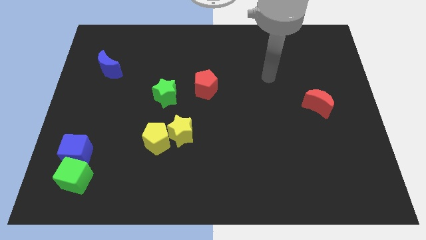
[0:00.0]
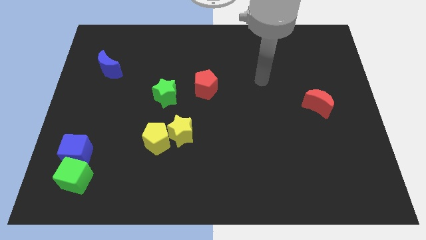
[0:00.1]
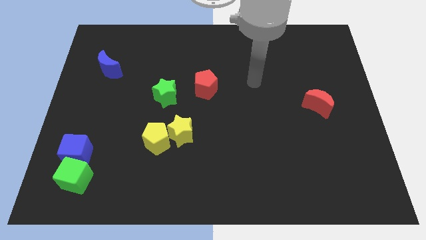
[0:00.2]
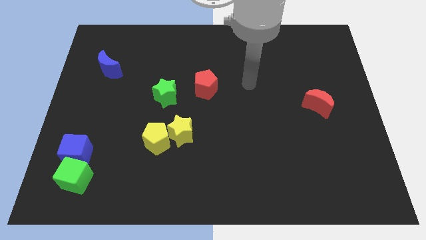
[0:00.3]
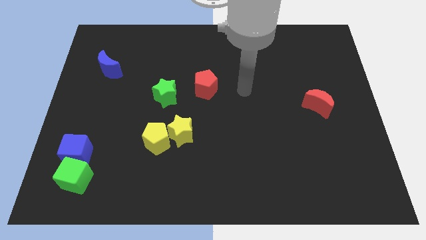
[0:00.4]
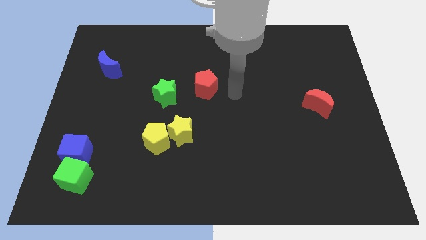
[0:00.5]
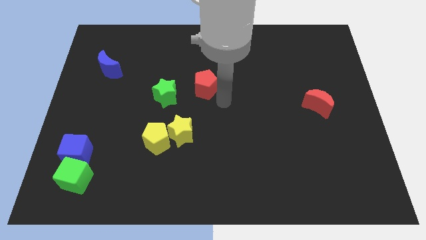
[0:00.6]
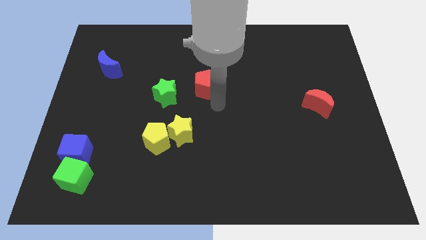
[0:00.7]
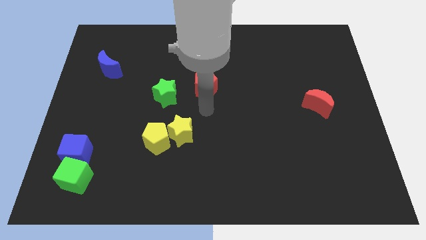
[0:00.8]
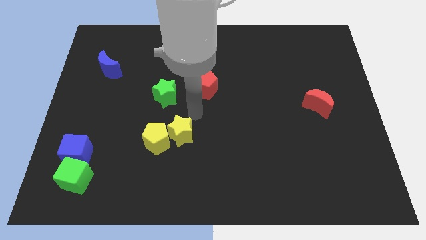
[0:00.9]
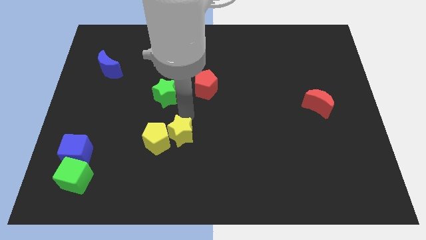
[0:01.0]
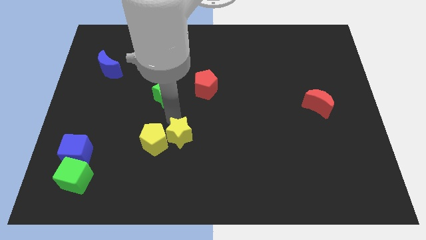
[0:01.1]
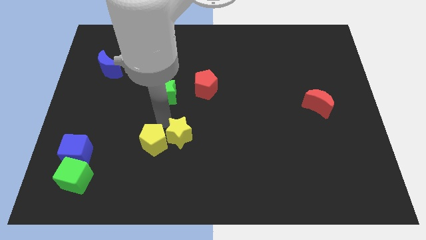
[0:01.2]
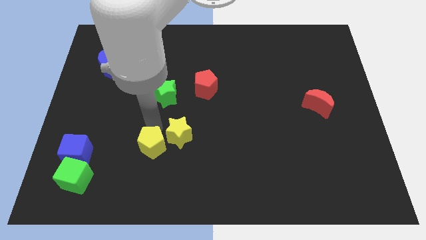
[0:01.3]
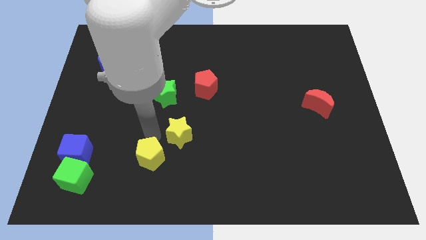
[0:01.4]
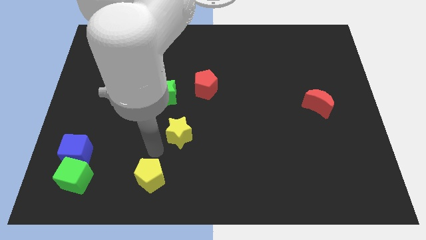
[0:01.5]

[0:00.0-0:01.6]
move the yellow star away from the yellow pentagon

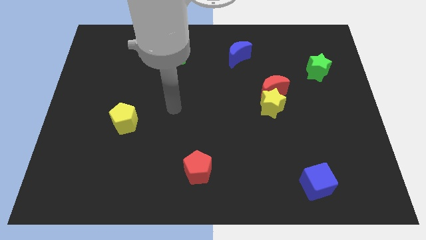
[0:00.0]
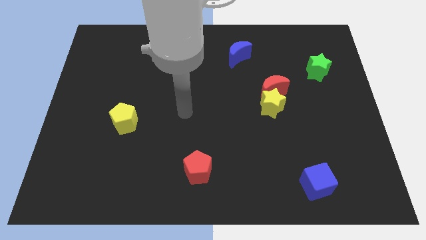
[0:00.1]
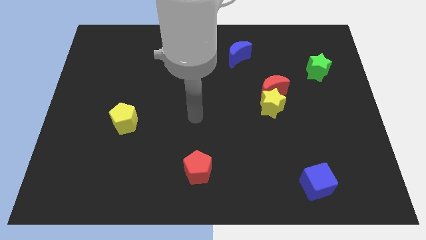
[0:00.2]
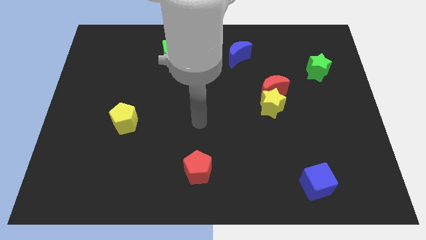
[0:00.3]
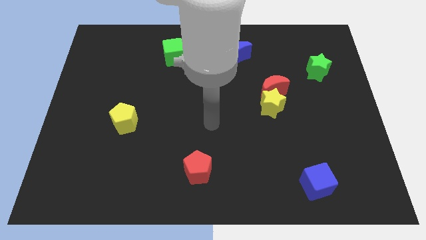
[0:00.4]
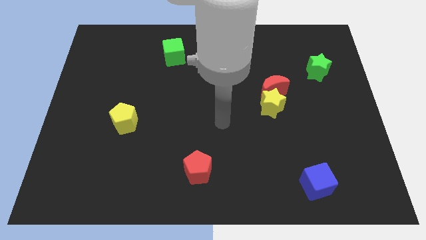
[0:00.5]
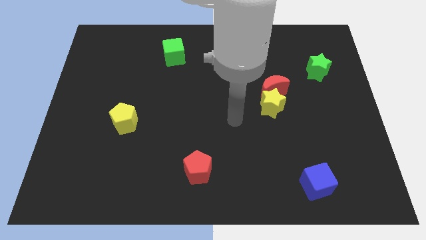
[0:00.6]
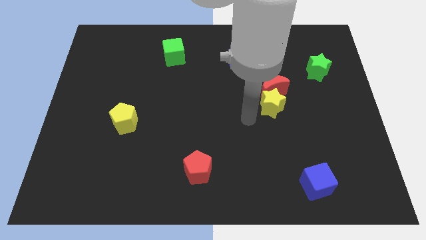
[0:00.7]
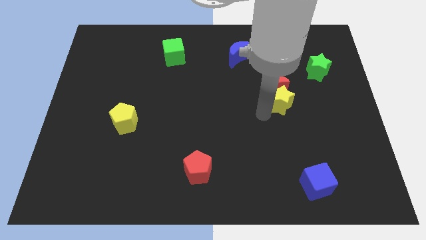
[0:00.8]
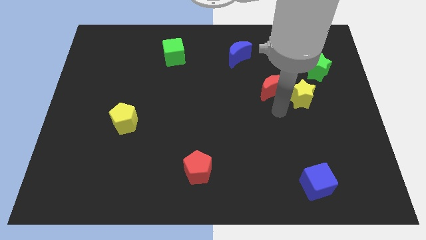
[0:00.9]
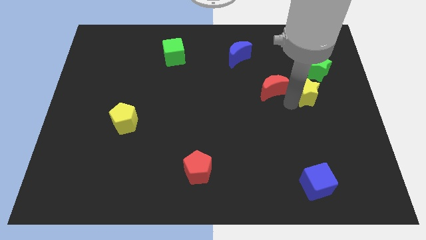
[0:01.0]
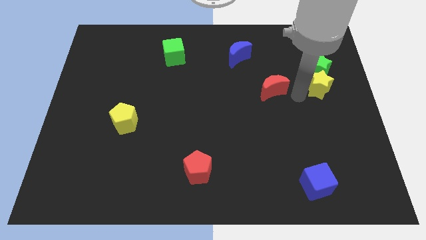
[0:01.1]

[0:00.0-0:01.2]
move the red moon away from the yellow star

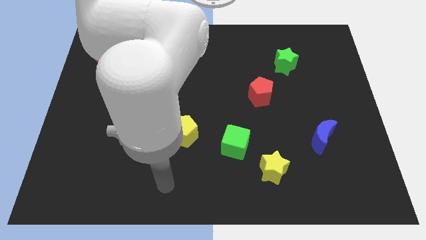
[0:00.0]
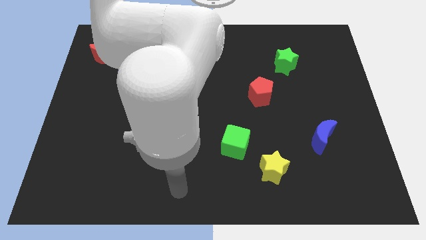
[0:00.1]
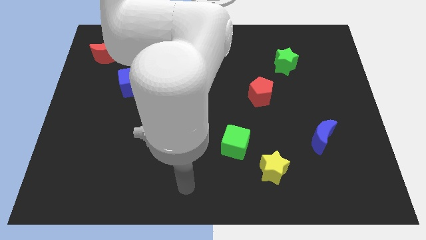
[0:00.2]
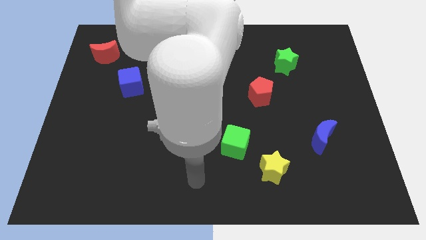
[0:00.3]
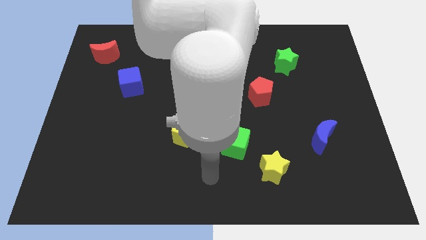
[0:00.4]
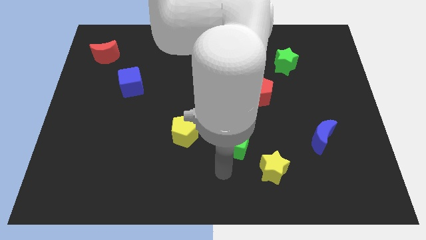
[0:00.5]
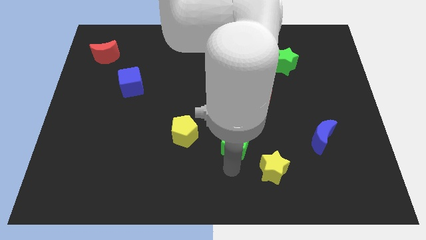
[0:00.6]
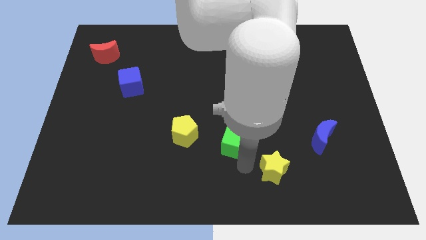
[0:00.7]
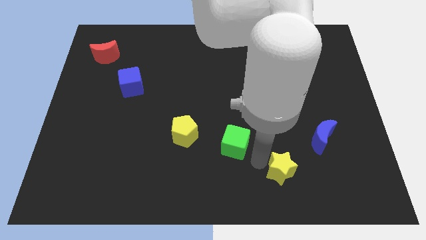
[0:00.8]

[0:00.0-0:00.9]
pull the green cube apart from the yellow star

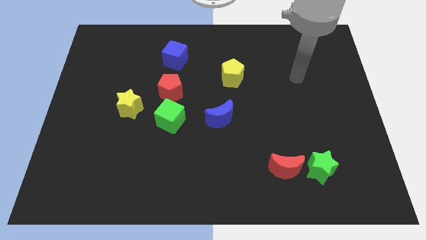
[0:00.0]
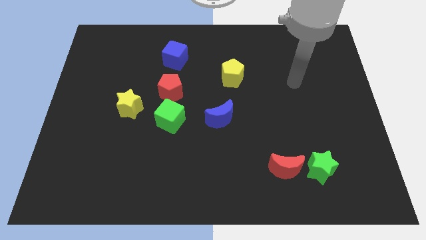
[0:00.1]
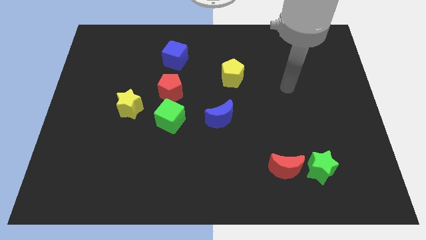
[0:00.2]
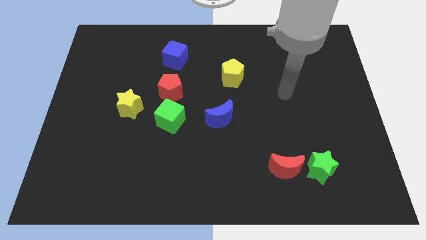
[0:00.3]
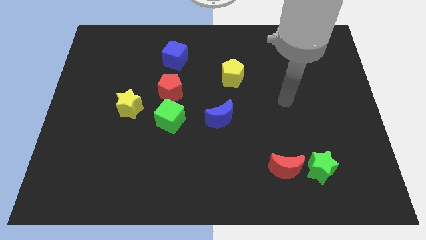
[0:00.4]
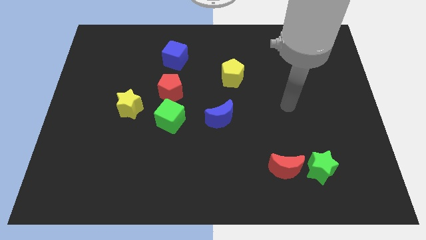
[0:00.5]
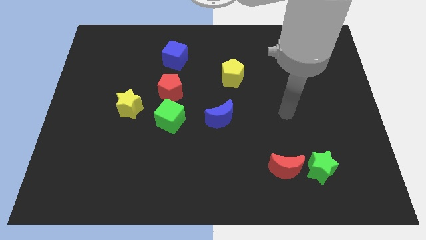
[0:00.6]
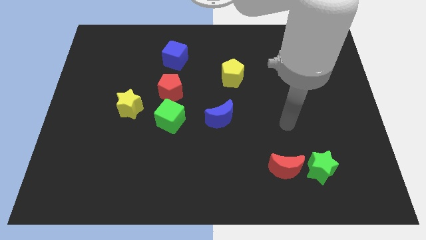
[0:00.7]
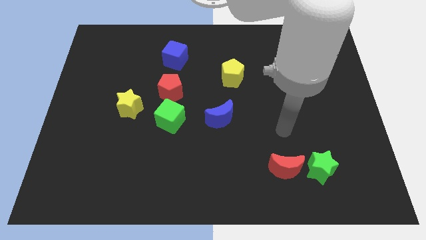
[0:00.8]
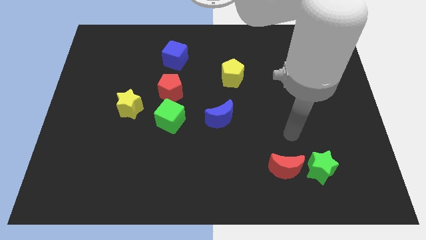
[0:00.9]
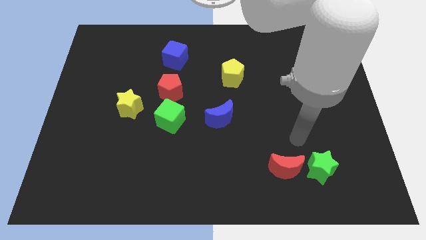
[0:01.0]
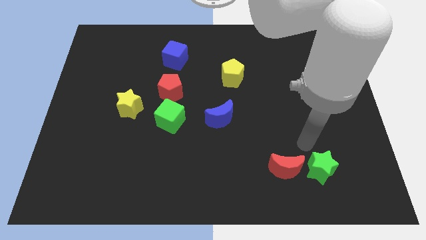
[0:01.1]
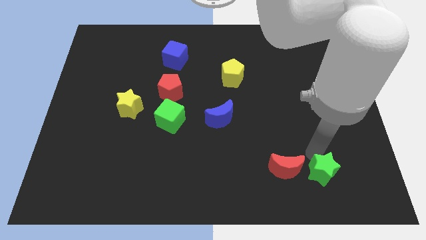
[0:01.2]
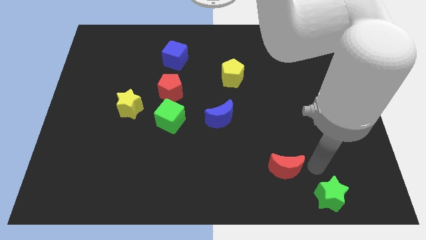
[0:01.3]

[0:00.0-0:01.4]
pull the red moon apart from the green star

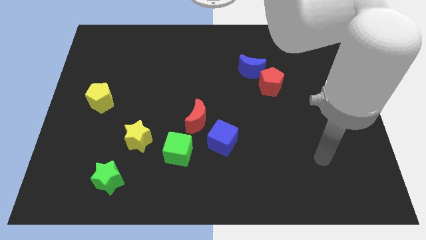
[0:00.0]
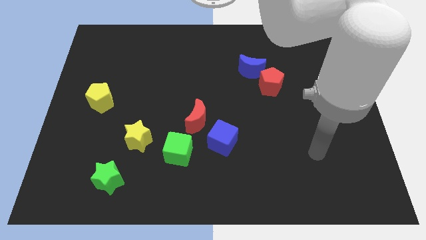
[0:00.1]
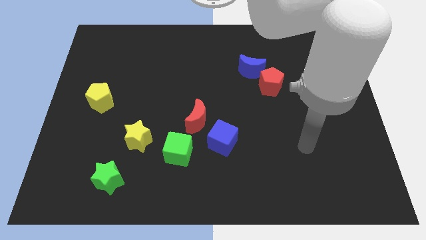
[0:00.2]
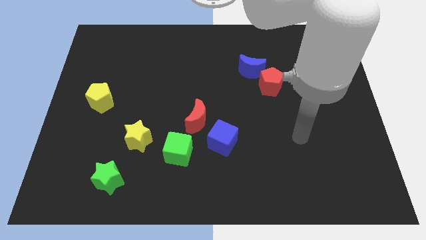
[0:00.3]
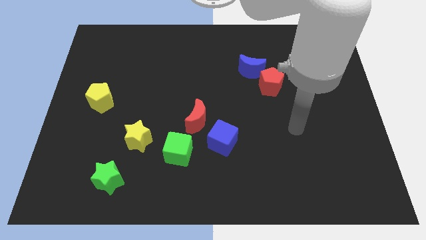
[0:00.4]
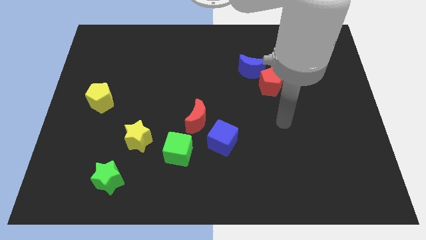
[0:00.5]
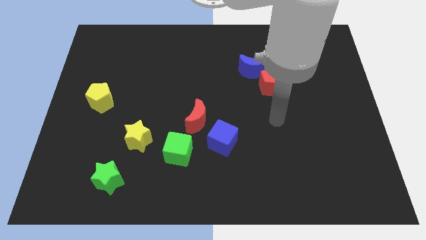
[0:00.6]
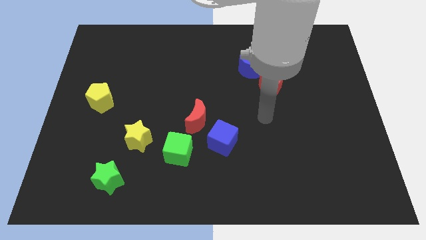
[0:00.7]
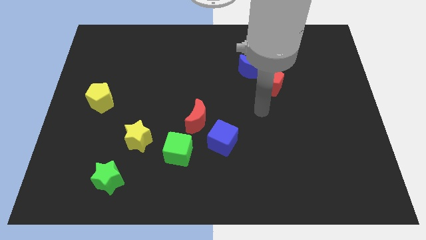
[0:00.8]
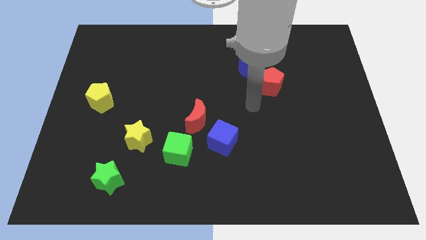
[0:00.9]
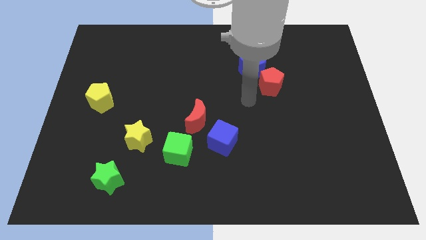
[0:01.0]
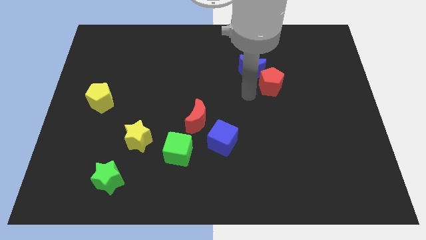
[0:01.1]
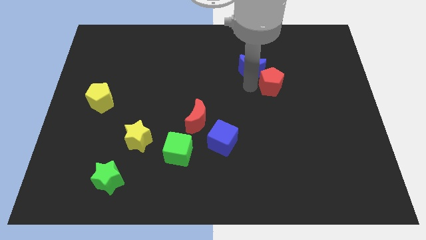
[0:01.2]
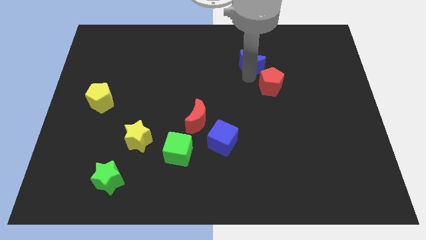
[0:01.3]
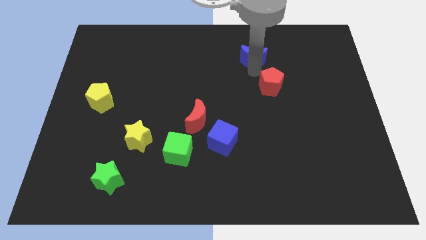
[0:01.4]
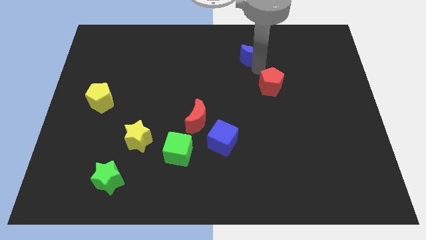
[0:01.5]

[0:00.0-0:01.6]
pull the red pentagon apart from the blue moon

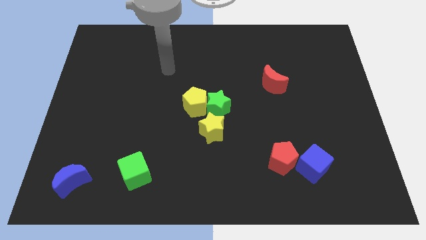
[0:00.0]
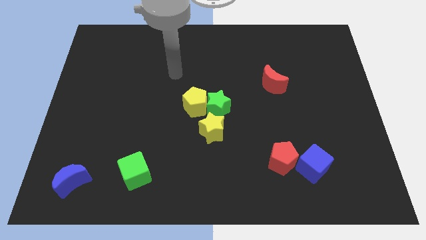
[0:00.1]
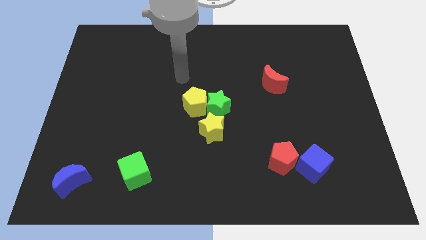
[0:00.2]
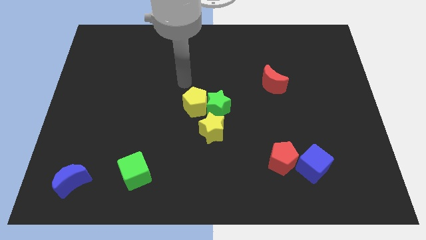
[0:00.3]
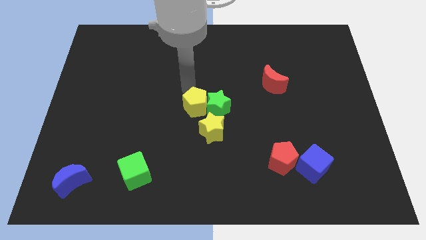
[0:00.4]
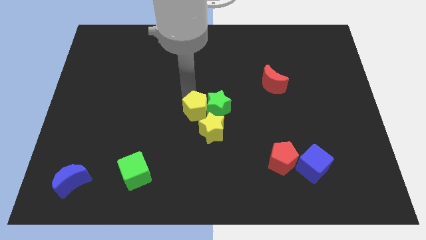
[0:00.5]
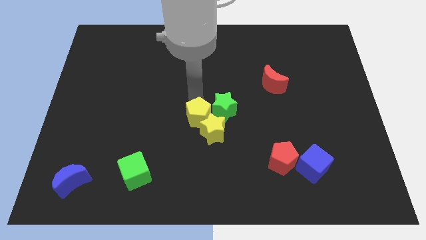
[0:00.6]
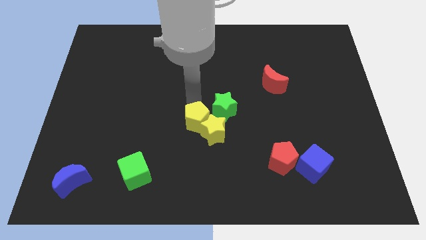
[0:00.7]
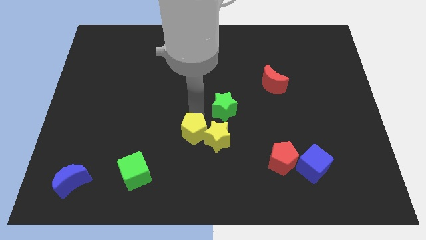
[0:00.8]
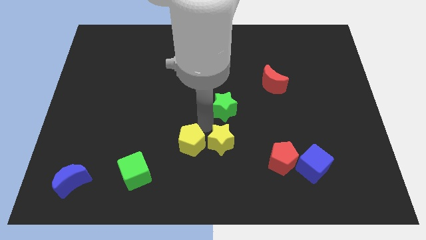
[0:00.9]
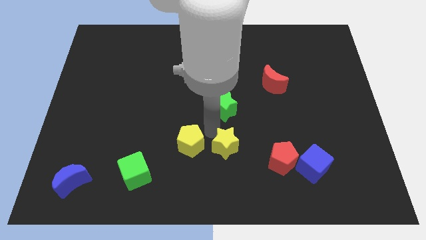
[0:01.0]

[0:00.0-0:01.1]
separate the green star from the yellow pentagon and yellow star

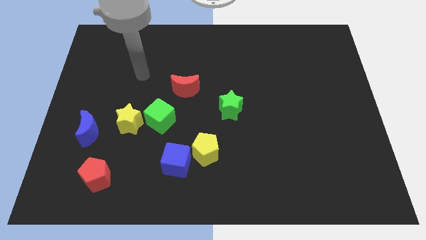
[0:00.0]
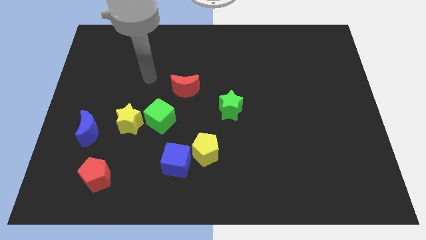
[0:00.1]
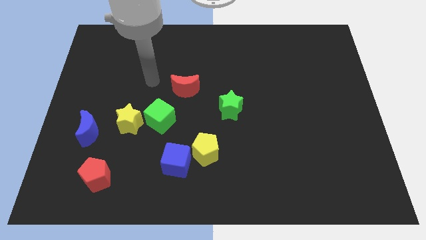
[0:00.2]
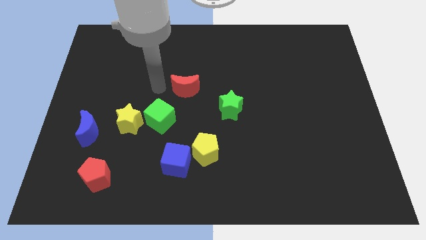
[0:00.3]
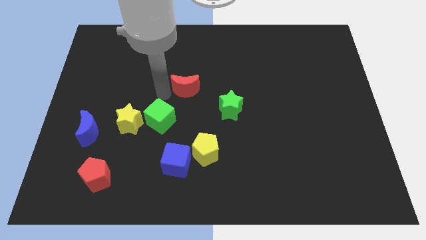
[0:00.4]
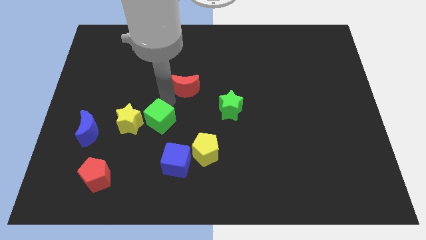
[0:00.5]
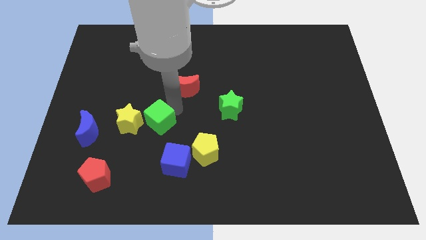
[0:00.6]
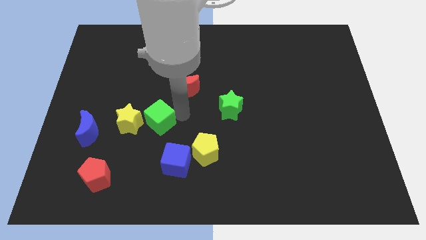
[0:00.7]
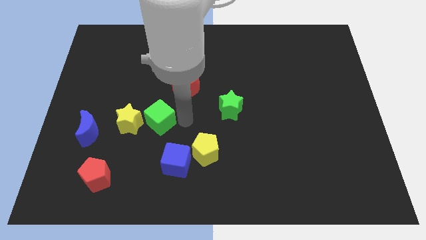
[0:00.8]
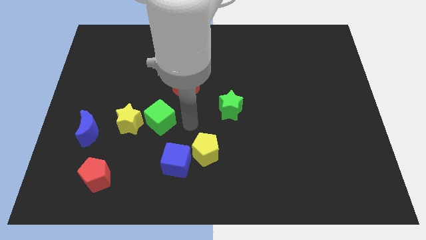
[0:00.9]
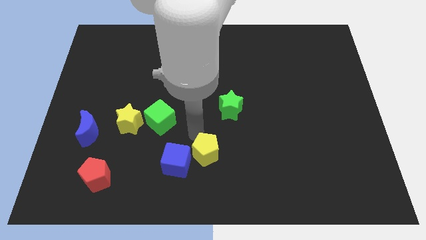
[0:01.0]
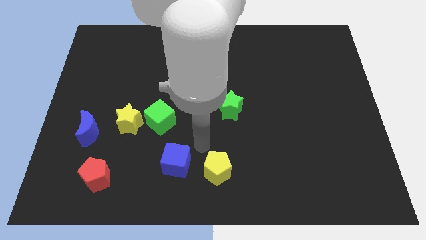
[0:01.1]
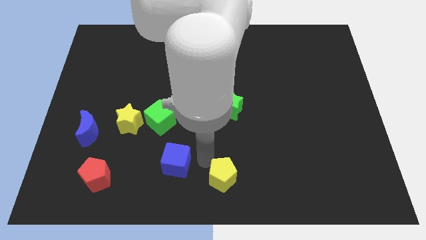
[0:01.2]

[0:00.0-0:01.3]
pull the blue cube apart from the yellow pentagon
